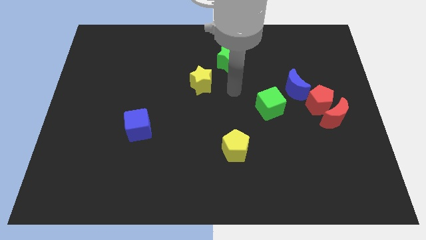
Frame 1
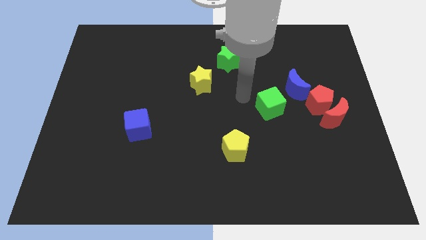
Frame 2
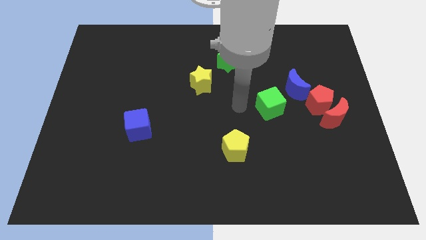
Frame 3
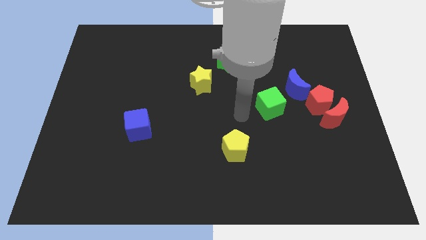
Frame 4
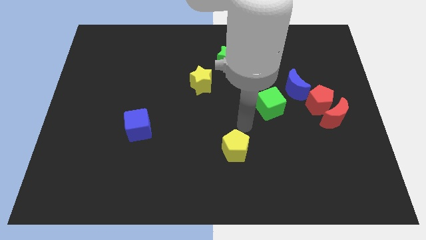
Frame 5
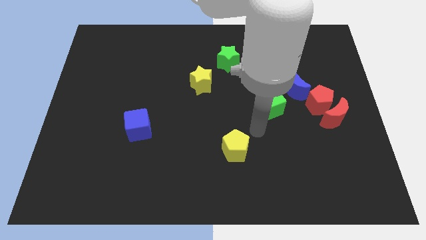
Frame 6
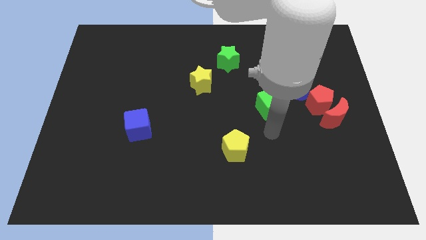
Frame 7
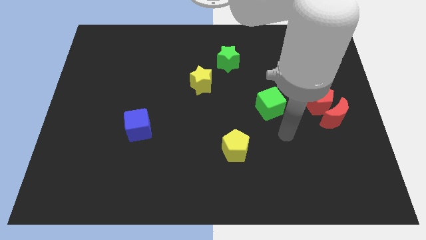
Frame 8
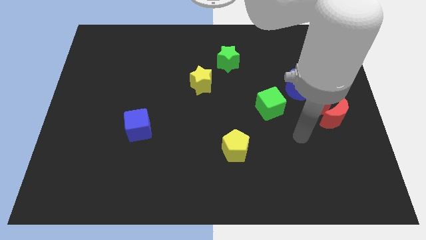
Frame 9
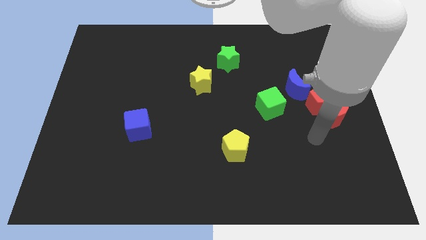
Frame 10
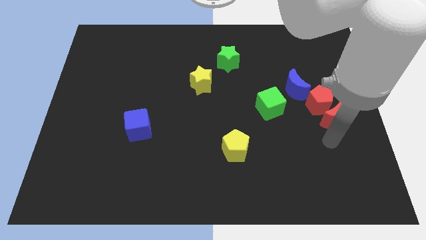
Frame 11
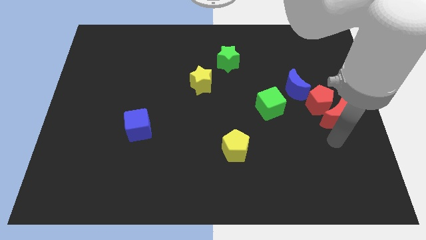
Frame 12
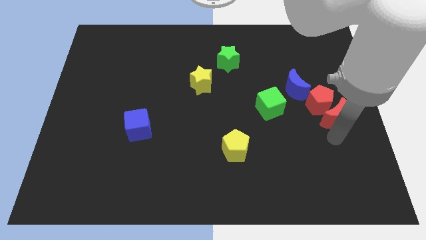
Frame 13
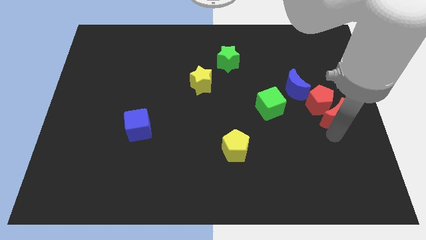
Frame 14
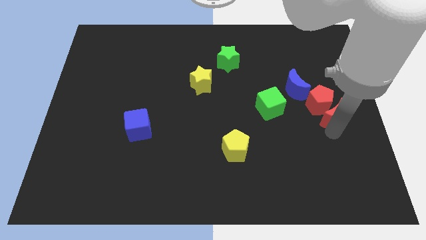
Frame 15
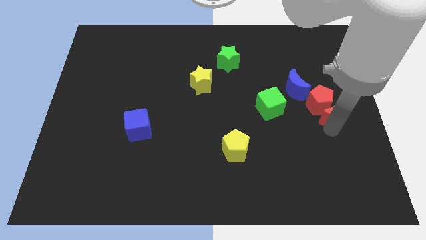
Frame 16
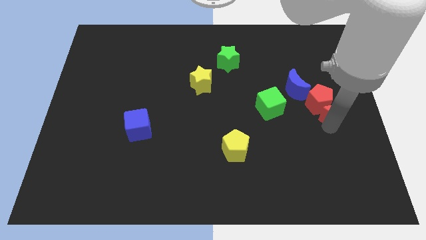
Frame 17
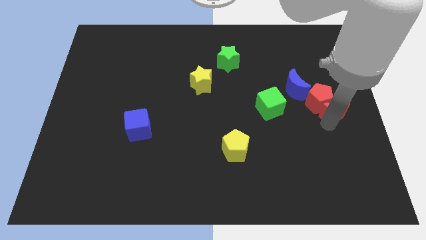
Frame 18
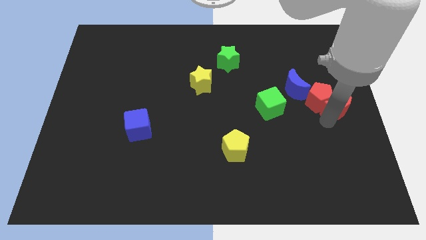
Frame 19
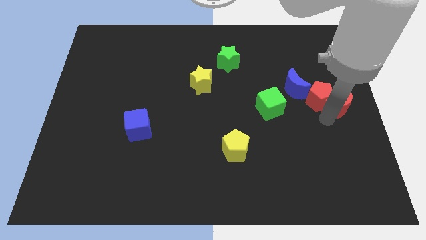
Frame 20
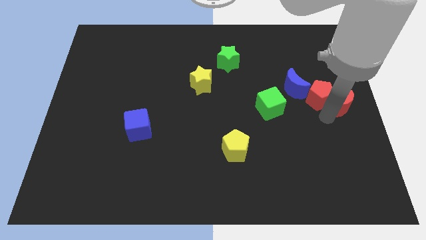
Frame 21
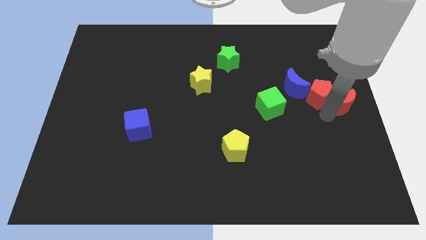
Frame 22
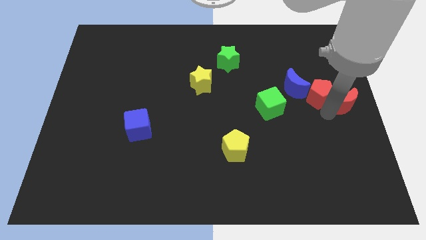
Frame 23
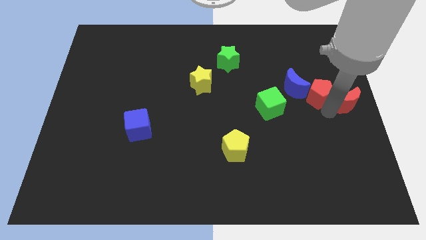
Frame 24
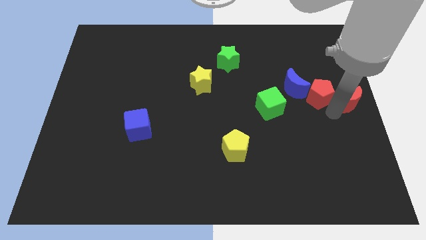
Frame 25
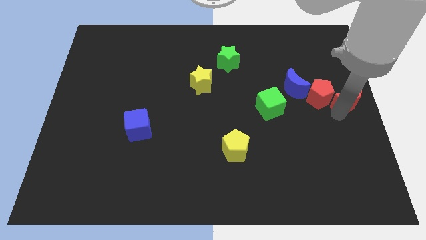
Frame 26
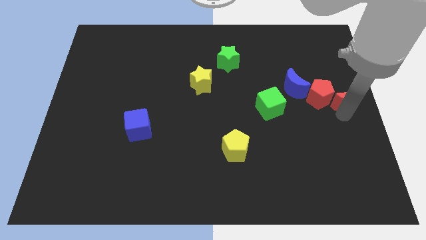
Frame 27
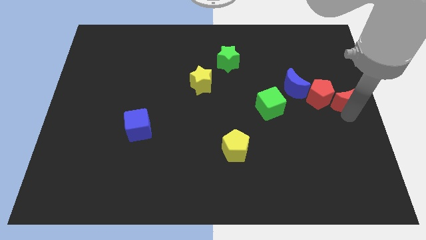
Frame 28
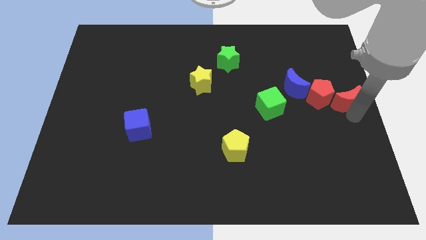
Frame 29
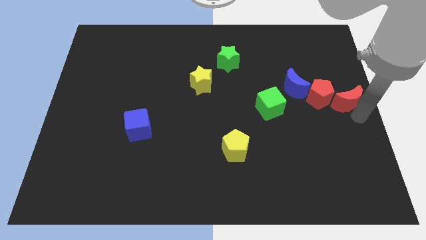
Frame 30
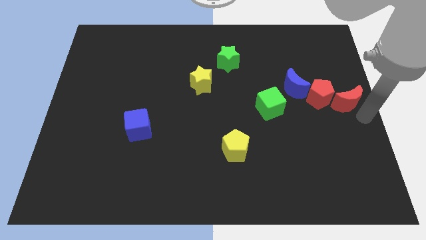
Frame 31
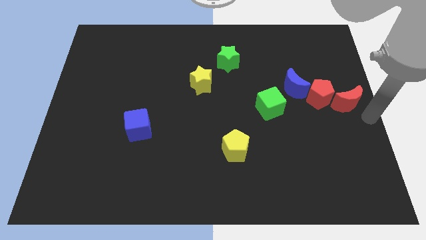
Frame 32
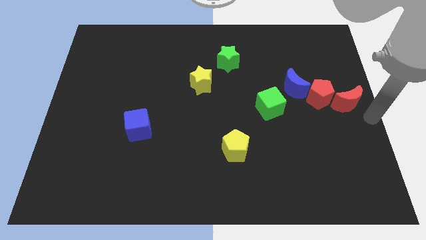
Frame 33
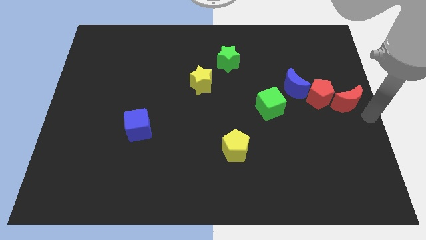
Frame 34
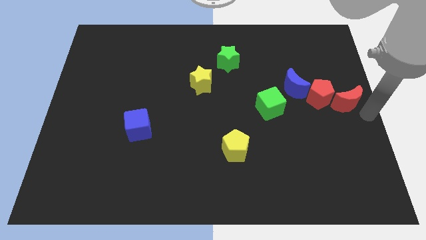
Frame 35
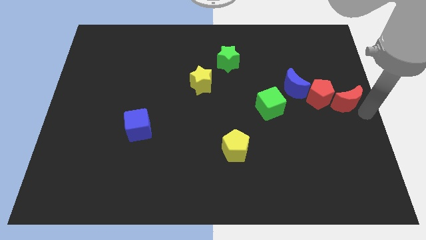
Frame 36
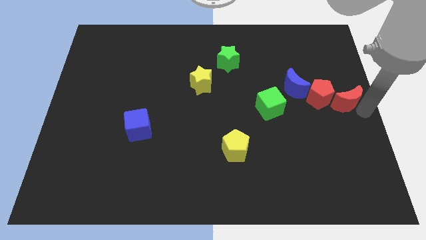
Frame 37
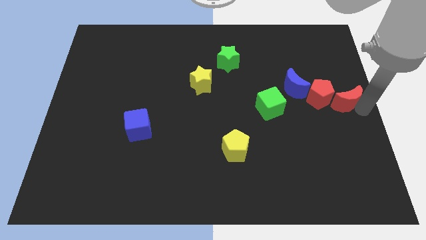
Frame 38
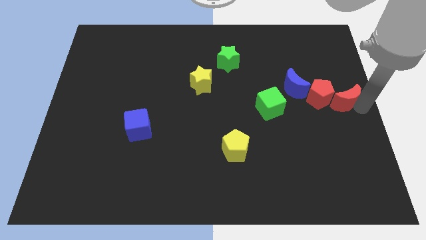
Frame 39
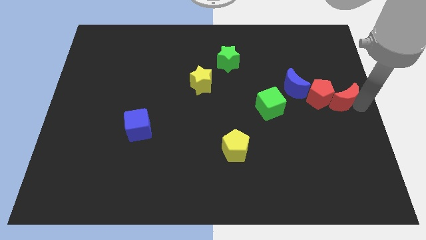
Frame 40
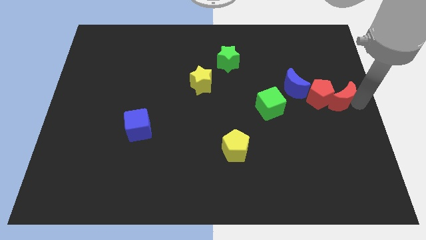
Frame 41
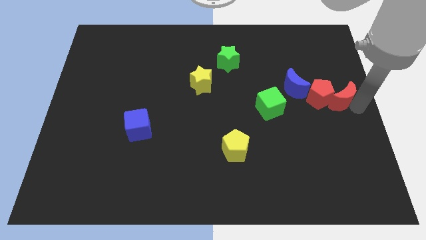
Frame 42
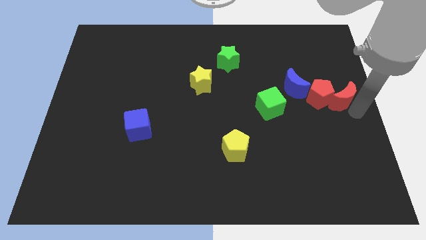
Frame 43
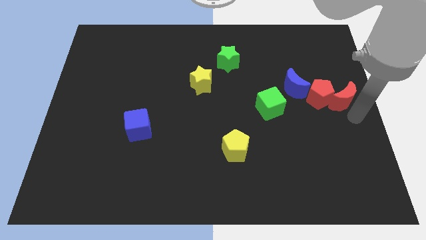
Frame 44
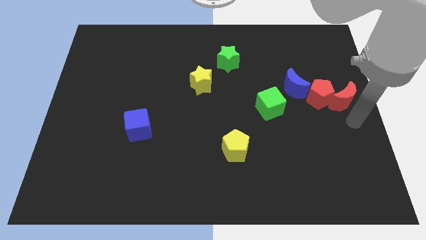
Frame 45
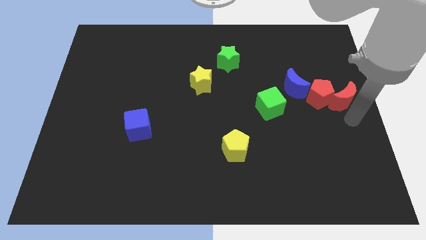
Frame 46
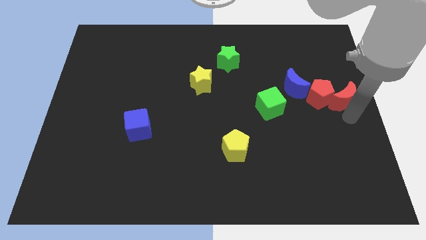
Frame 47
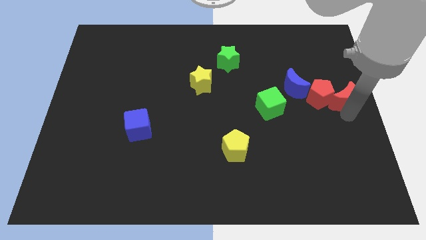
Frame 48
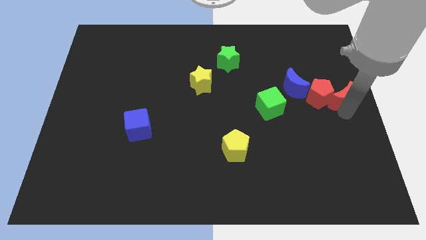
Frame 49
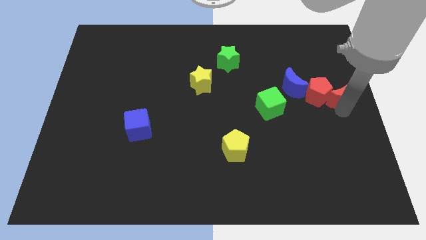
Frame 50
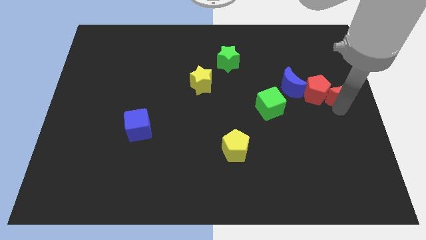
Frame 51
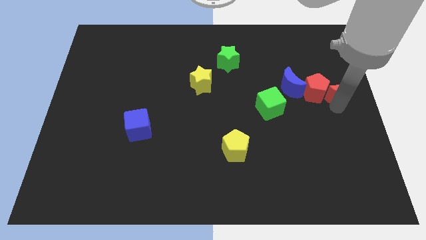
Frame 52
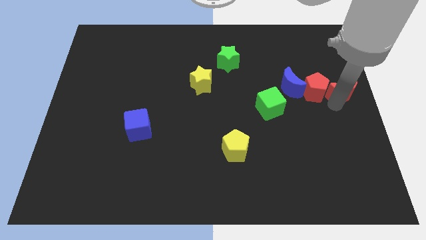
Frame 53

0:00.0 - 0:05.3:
move the red moon somewhat up

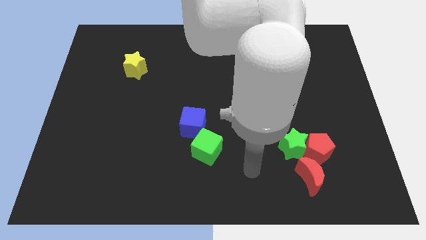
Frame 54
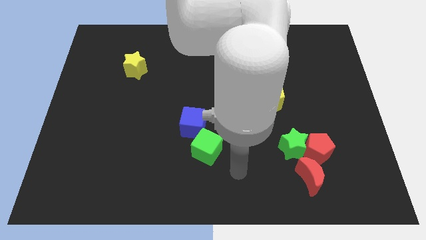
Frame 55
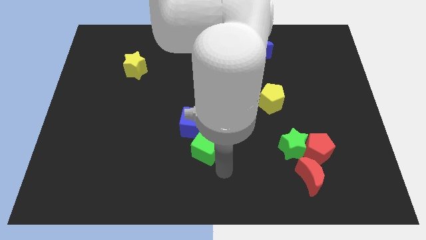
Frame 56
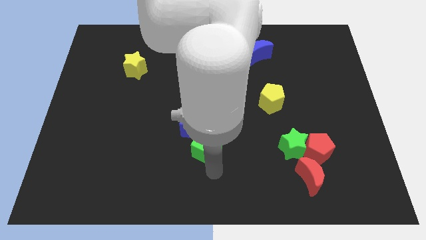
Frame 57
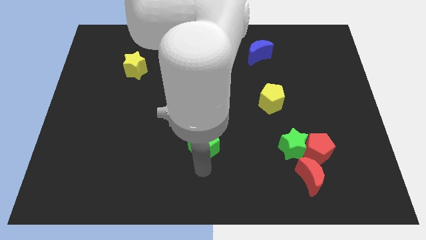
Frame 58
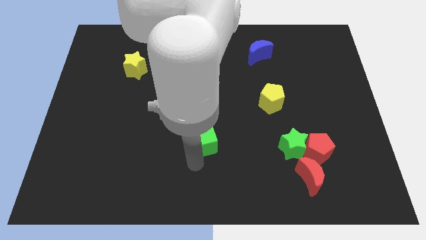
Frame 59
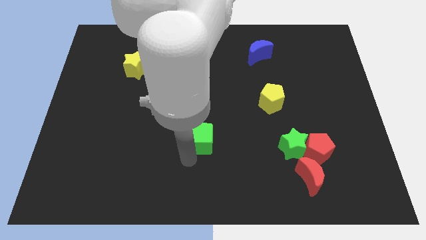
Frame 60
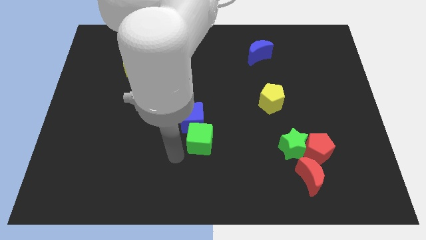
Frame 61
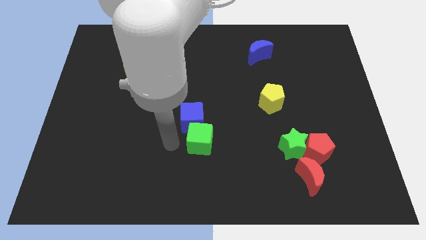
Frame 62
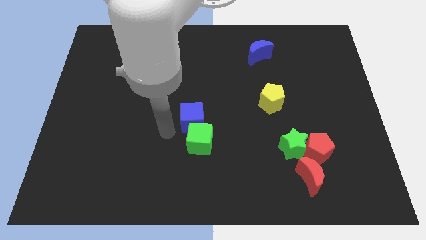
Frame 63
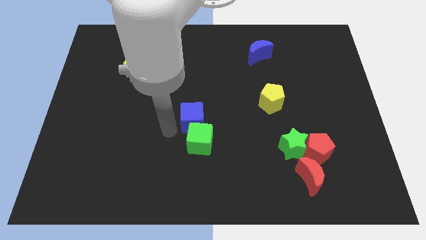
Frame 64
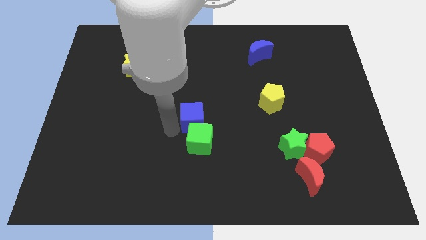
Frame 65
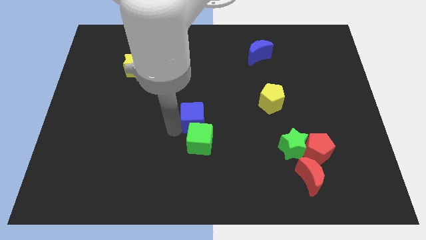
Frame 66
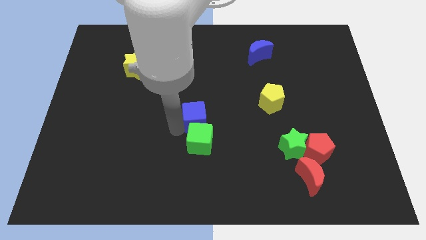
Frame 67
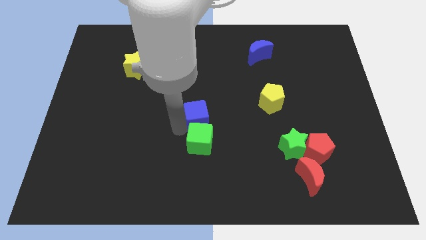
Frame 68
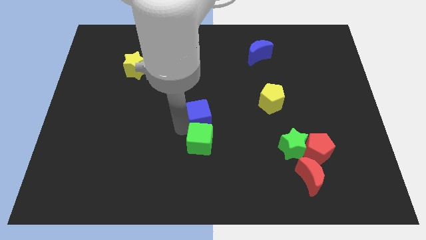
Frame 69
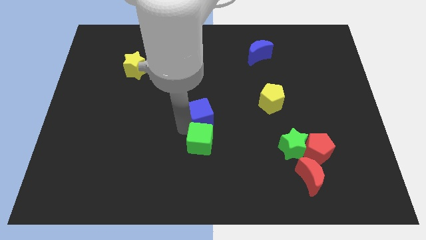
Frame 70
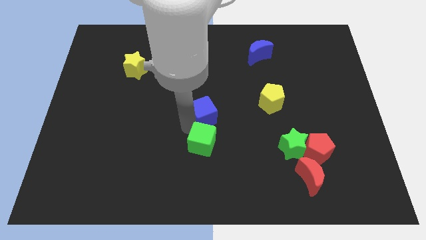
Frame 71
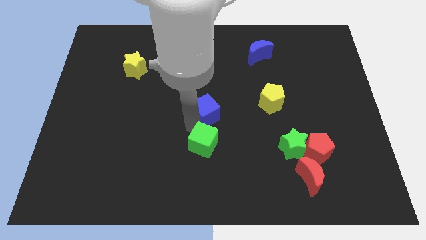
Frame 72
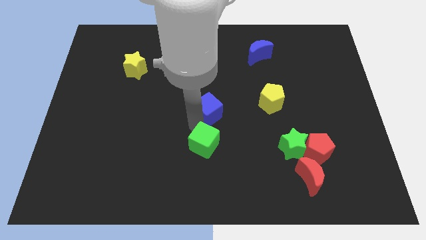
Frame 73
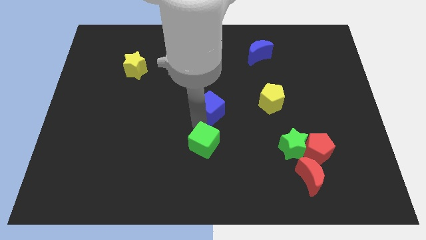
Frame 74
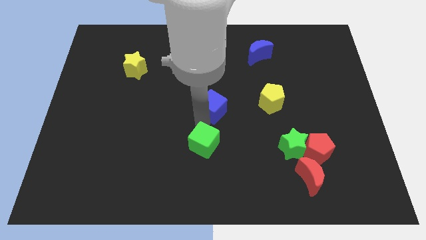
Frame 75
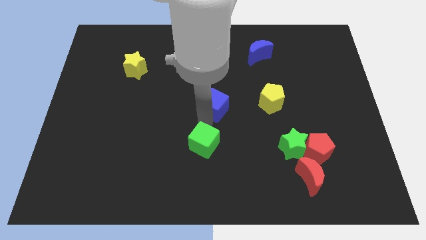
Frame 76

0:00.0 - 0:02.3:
slightly push the blue cube upwards and right diagonally

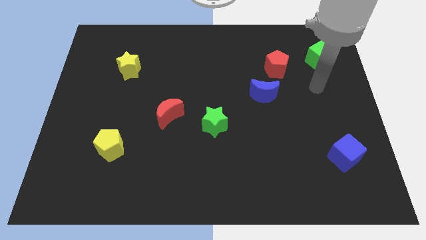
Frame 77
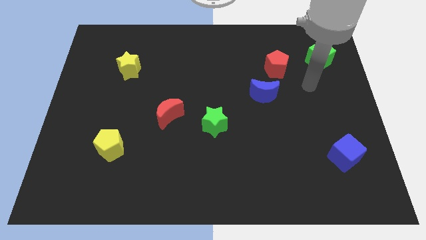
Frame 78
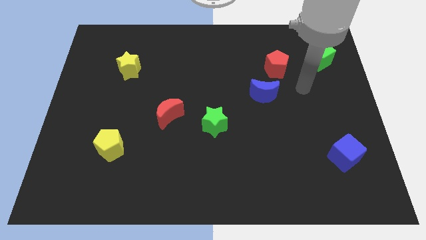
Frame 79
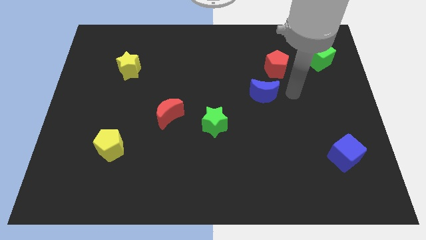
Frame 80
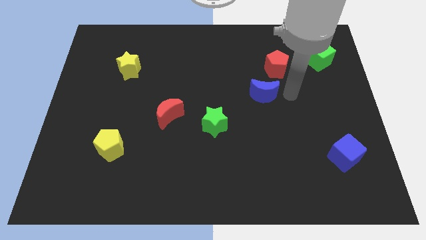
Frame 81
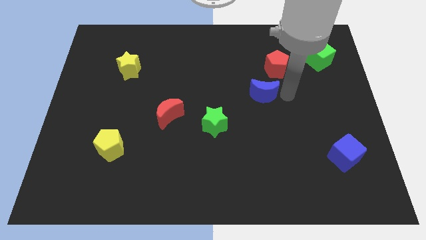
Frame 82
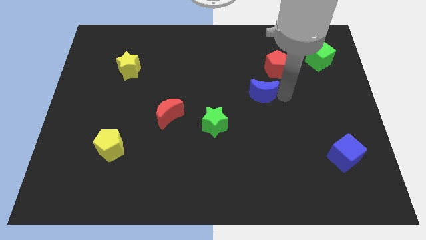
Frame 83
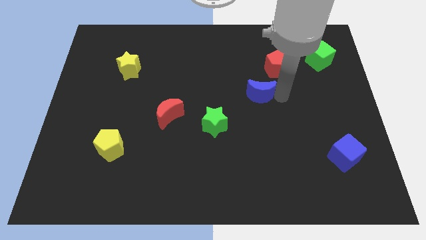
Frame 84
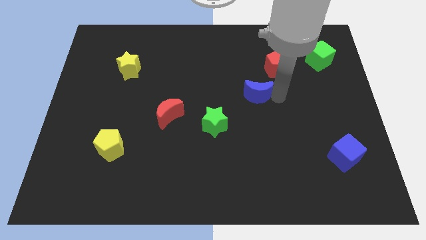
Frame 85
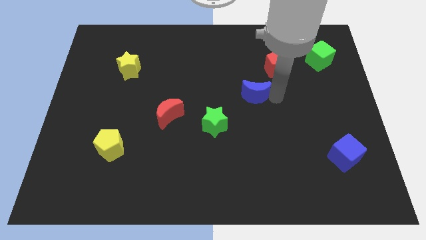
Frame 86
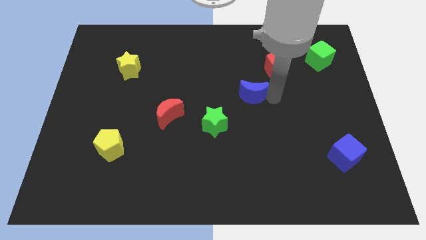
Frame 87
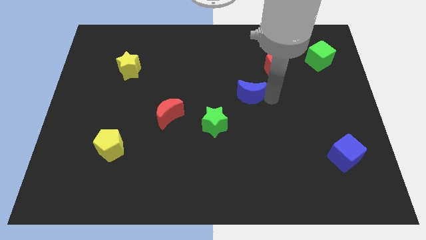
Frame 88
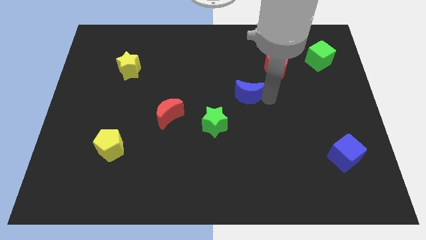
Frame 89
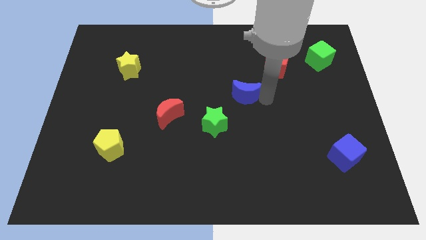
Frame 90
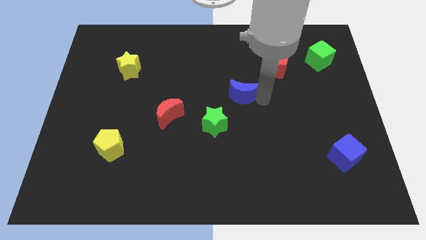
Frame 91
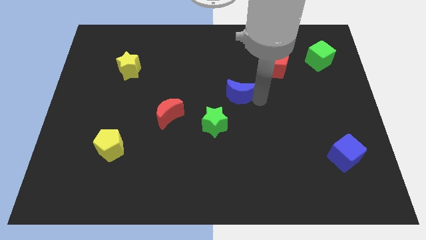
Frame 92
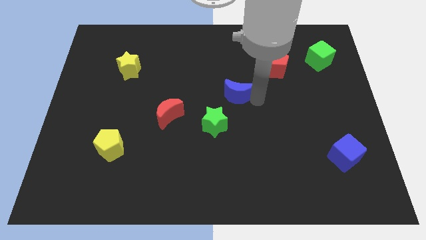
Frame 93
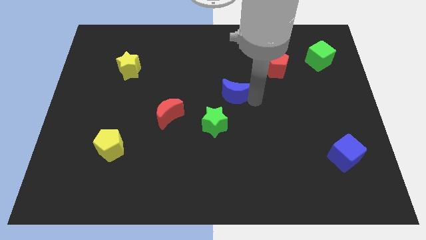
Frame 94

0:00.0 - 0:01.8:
push the blue moon left a bit
